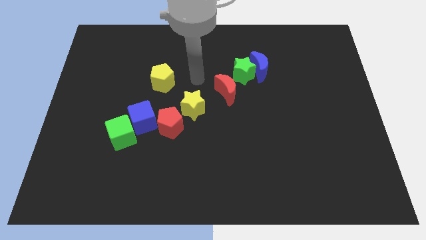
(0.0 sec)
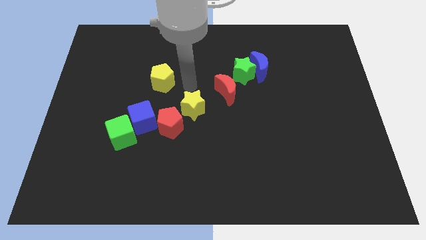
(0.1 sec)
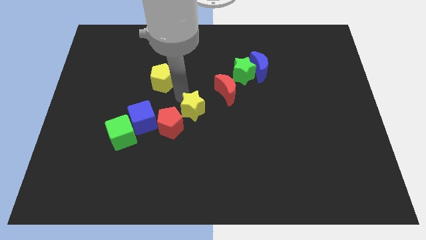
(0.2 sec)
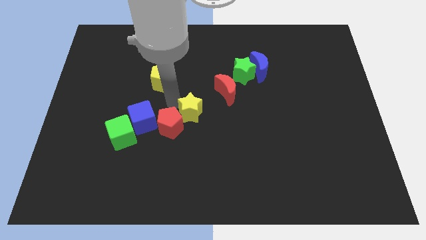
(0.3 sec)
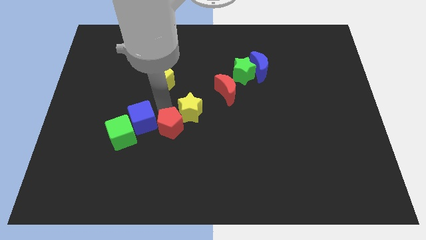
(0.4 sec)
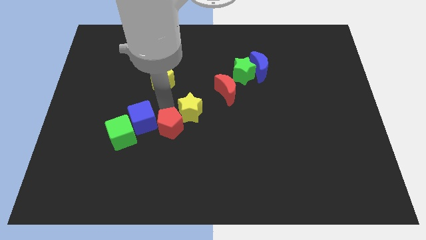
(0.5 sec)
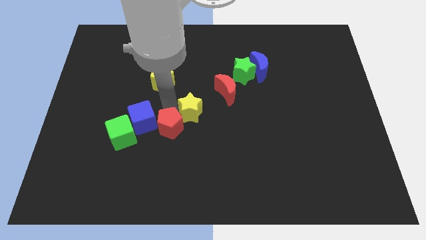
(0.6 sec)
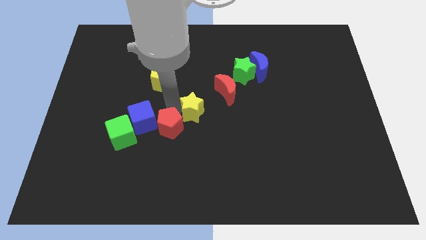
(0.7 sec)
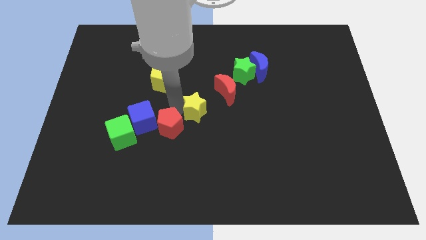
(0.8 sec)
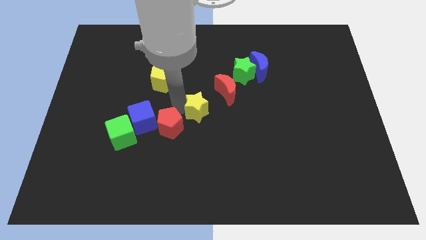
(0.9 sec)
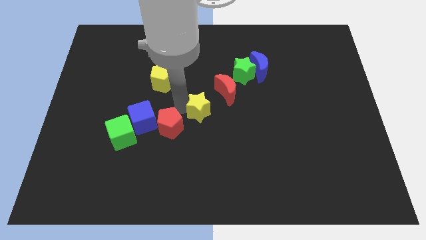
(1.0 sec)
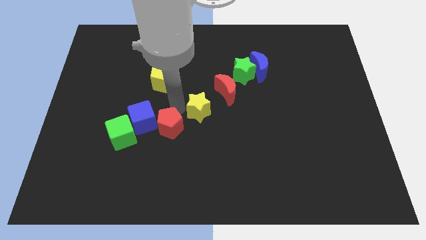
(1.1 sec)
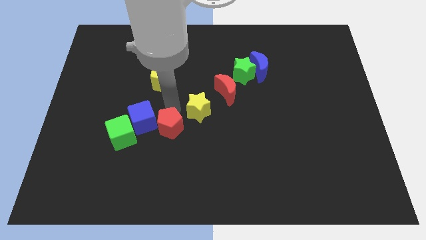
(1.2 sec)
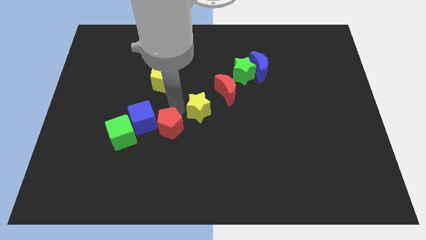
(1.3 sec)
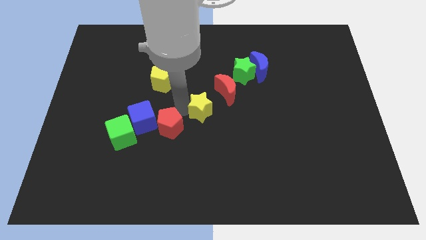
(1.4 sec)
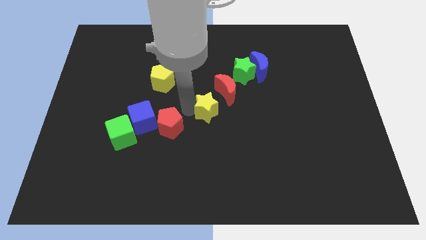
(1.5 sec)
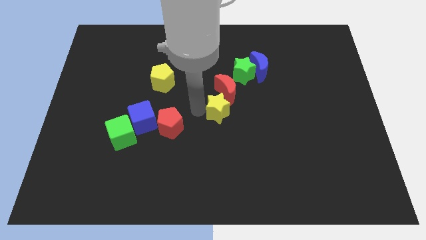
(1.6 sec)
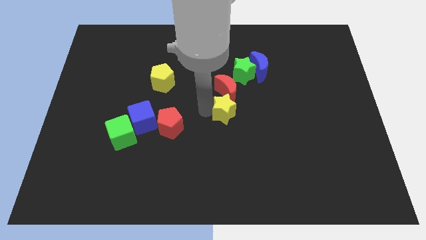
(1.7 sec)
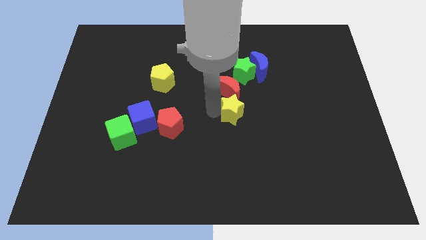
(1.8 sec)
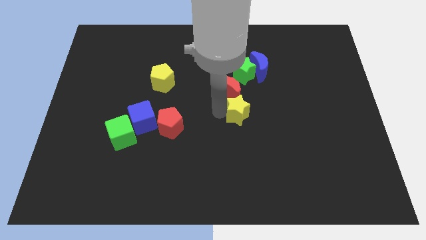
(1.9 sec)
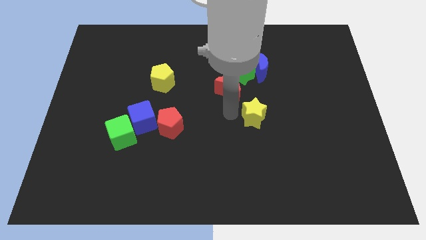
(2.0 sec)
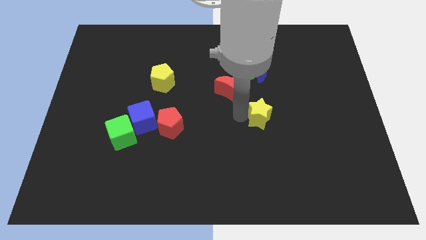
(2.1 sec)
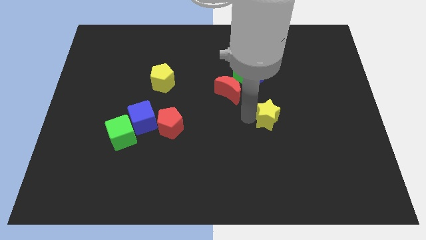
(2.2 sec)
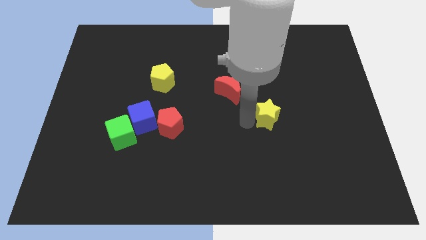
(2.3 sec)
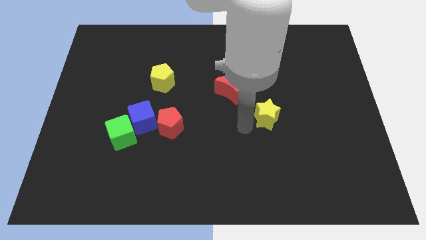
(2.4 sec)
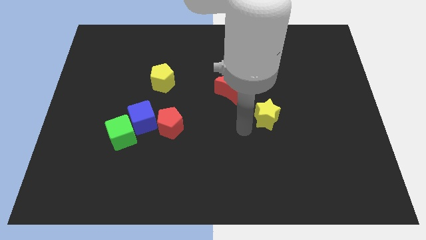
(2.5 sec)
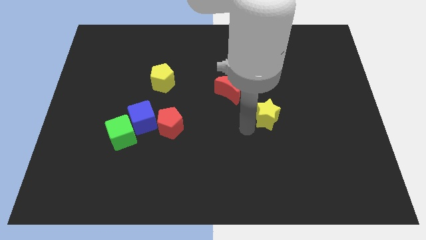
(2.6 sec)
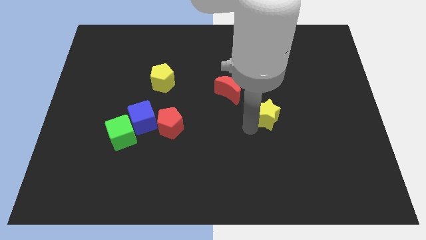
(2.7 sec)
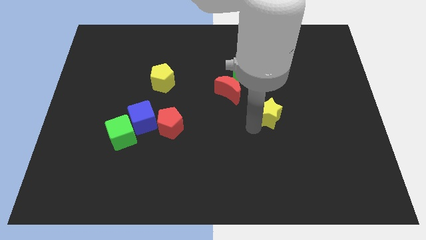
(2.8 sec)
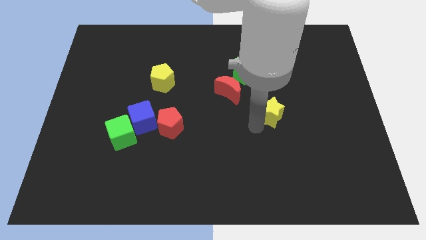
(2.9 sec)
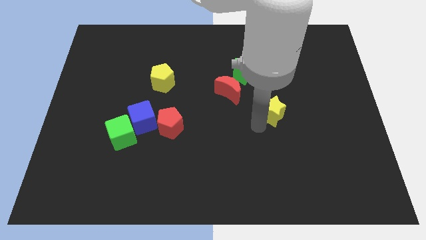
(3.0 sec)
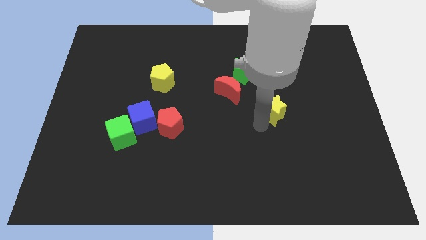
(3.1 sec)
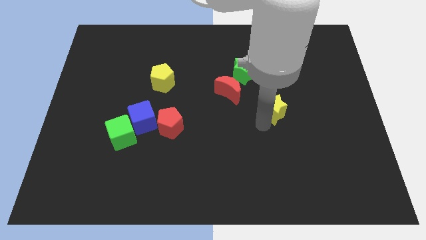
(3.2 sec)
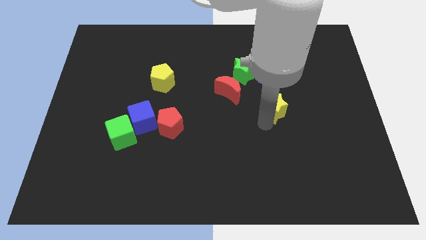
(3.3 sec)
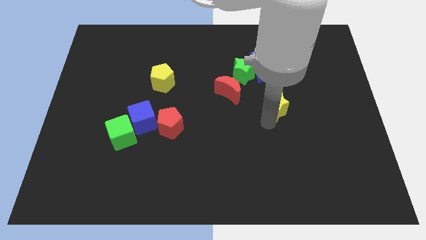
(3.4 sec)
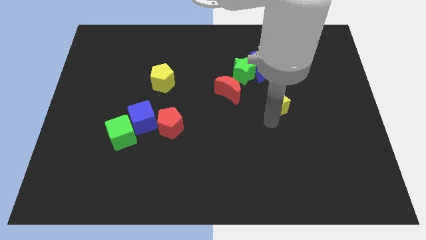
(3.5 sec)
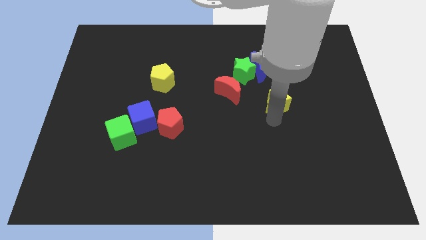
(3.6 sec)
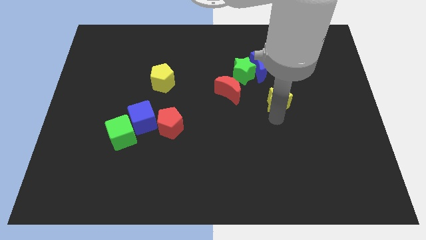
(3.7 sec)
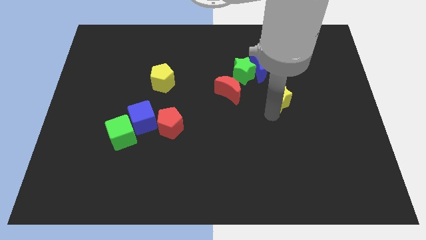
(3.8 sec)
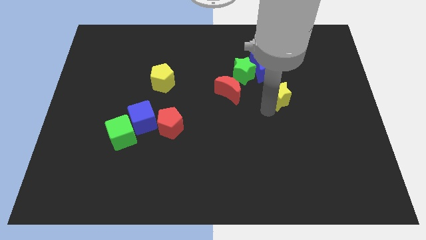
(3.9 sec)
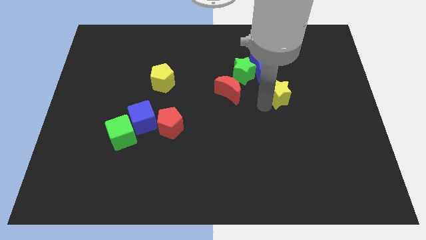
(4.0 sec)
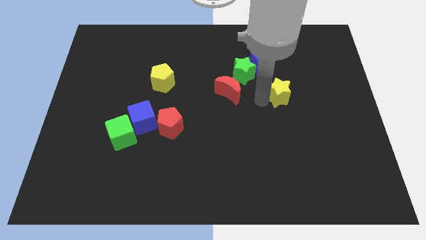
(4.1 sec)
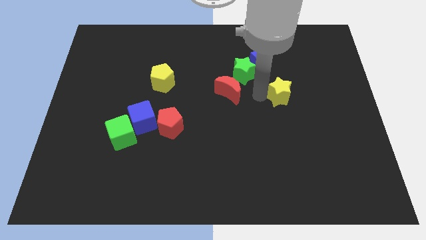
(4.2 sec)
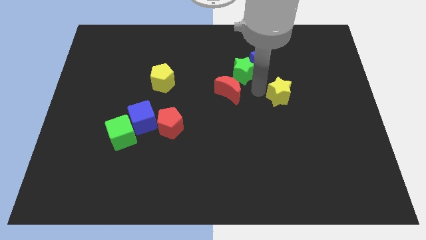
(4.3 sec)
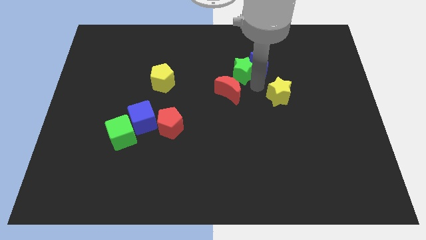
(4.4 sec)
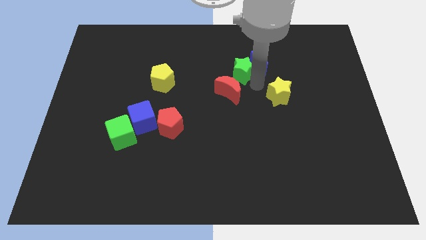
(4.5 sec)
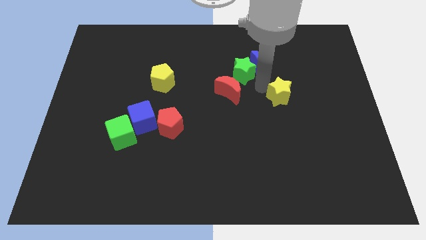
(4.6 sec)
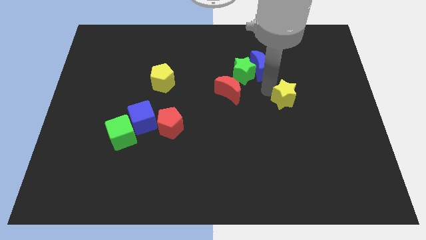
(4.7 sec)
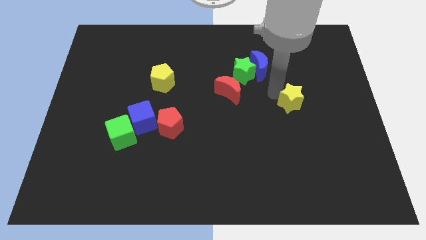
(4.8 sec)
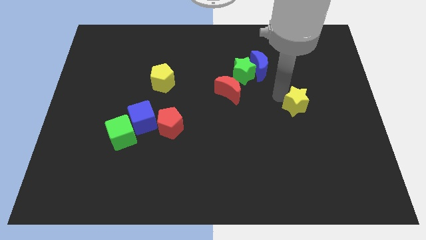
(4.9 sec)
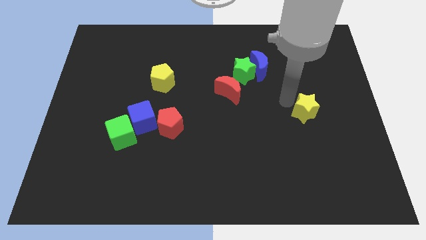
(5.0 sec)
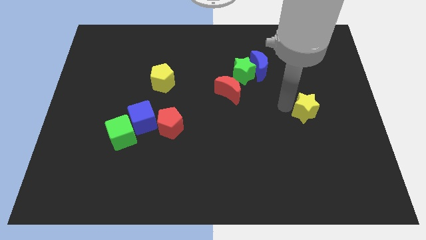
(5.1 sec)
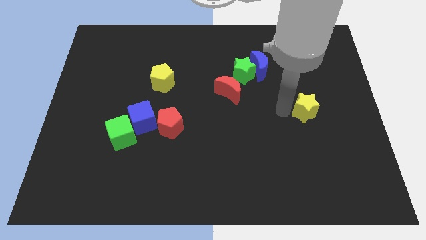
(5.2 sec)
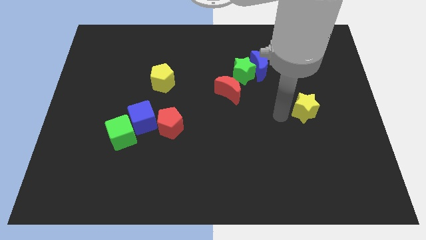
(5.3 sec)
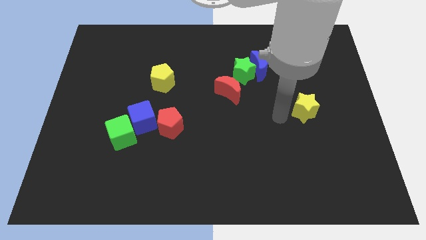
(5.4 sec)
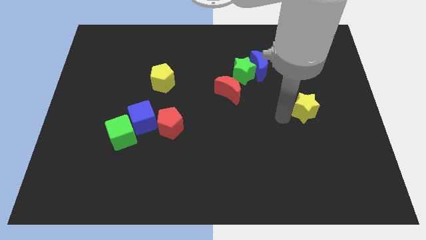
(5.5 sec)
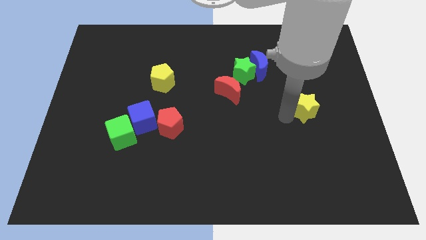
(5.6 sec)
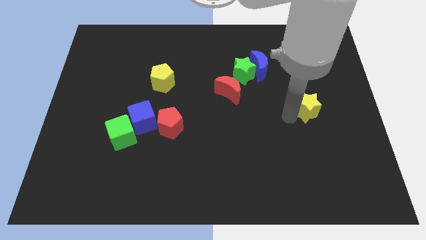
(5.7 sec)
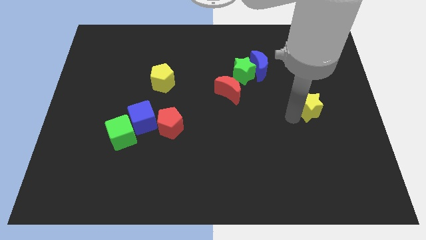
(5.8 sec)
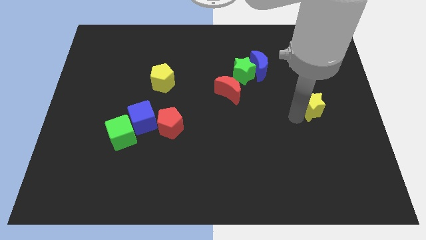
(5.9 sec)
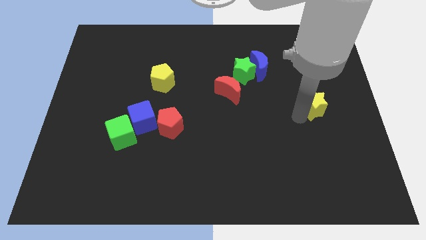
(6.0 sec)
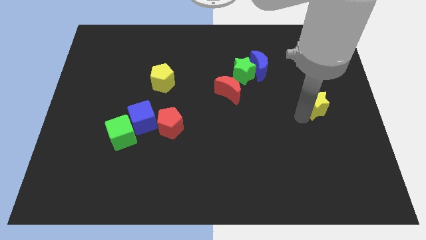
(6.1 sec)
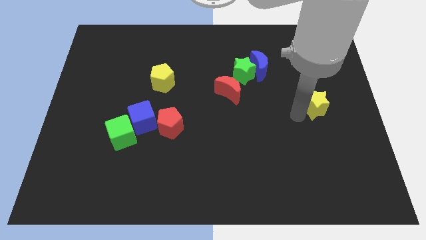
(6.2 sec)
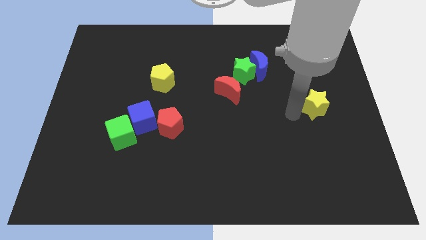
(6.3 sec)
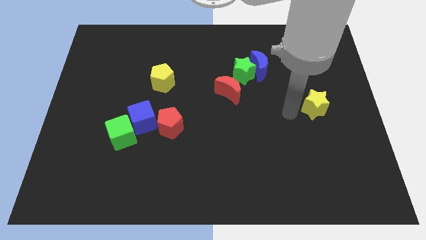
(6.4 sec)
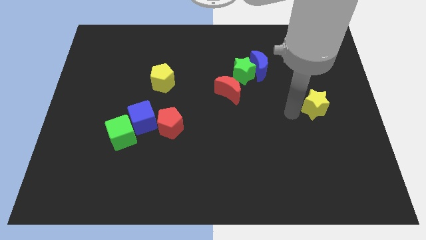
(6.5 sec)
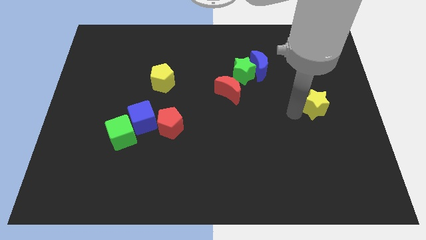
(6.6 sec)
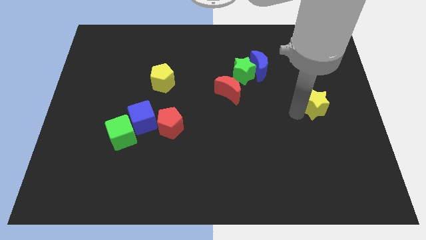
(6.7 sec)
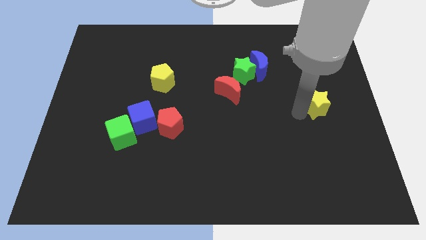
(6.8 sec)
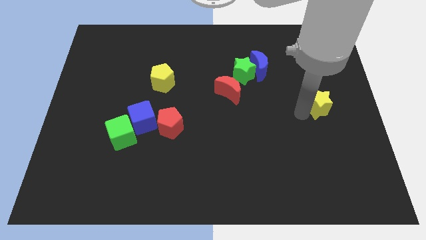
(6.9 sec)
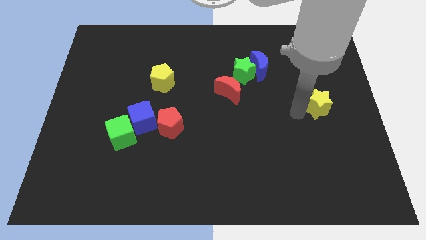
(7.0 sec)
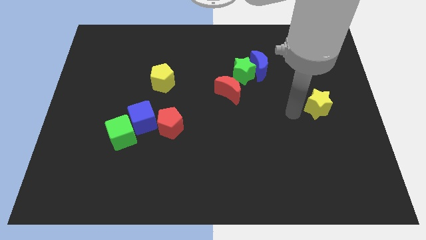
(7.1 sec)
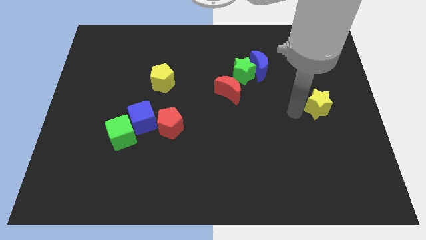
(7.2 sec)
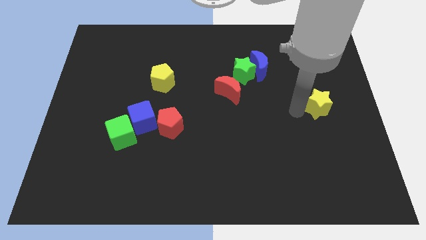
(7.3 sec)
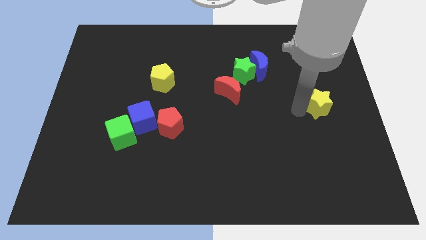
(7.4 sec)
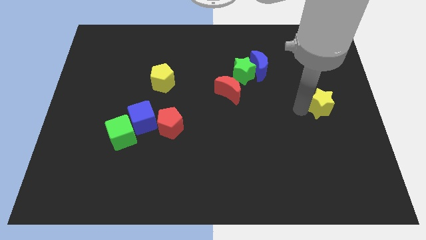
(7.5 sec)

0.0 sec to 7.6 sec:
slide the yellow star to the right side
